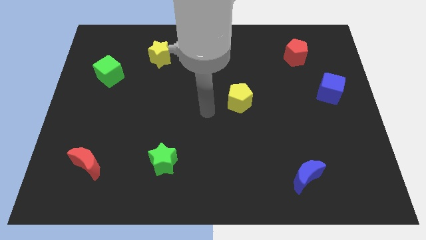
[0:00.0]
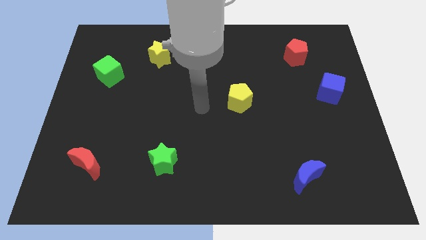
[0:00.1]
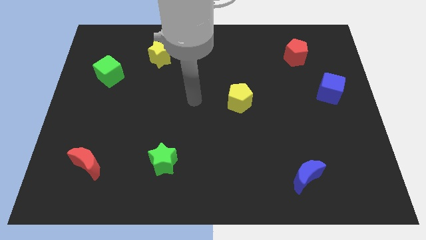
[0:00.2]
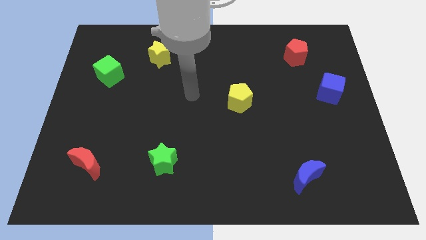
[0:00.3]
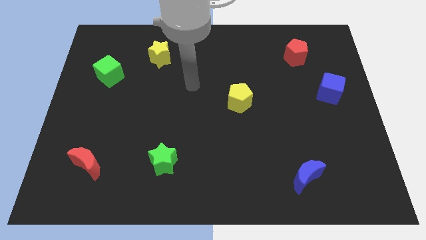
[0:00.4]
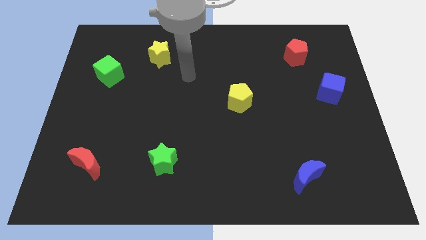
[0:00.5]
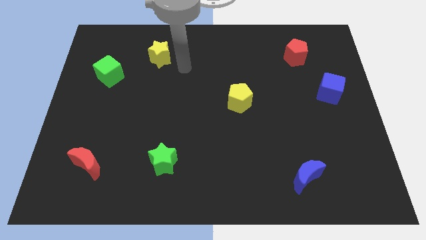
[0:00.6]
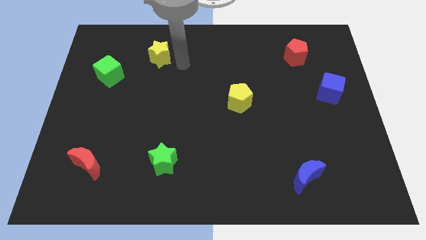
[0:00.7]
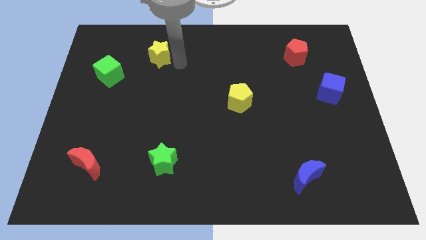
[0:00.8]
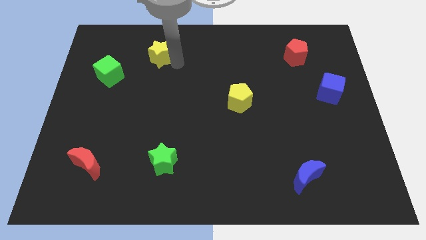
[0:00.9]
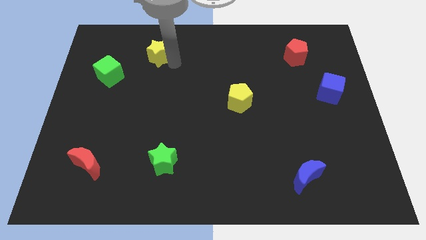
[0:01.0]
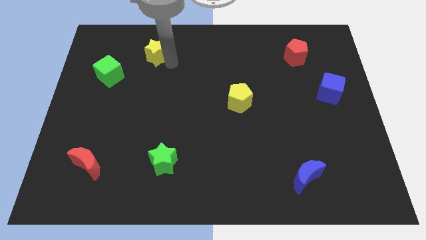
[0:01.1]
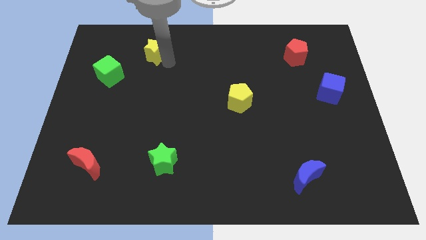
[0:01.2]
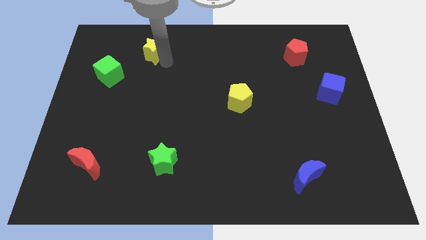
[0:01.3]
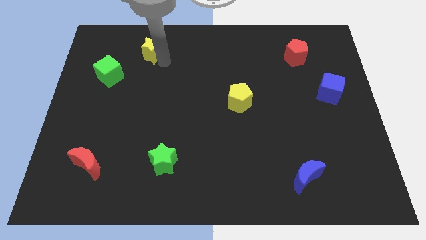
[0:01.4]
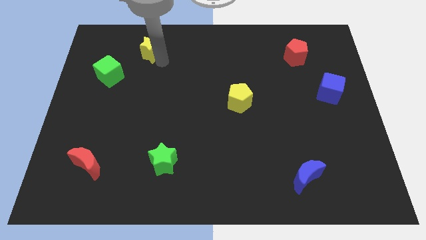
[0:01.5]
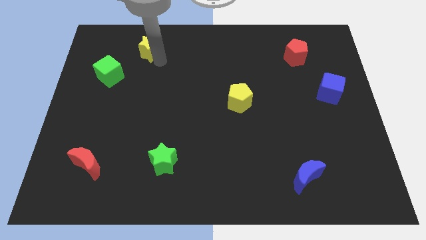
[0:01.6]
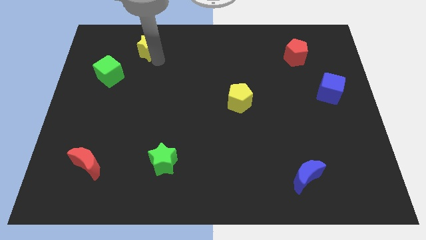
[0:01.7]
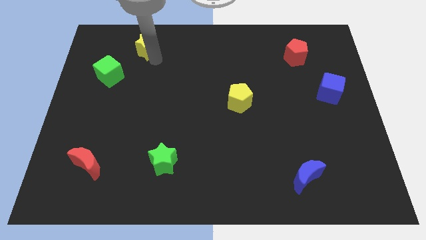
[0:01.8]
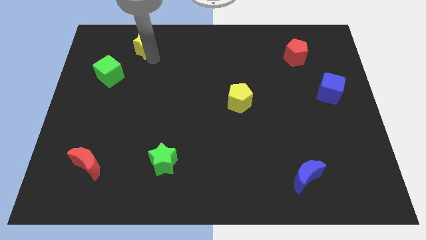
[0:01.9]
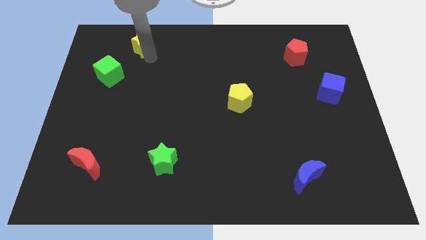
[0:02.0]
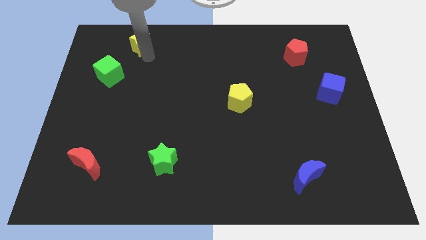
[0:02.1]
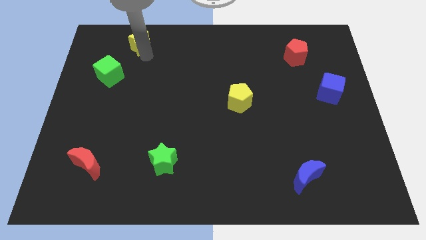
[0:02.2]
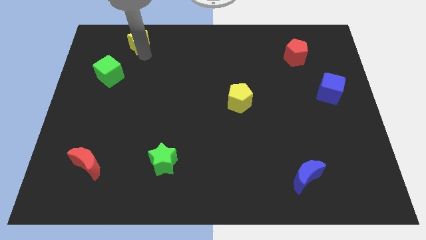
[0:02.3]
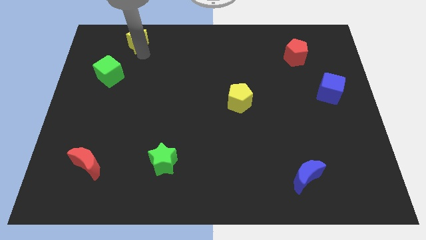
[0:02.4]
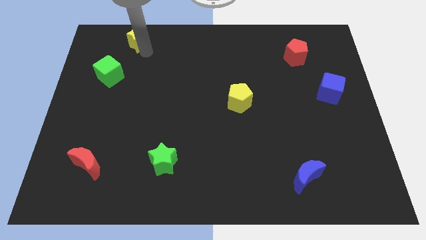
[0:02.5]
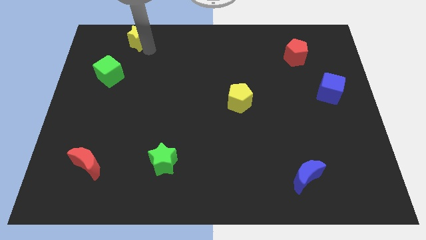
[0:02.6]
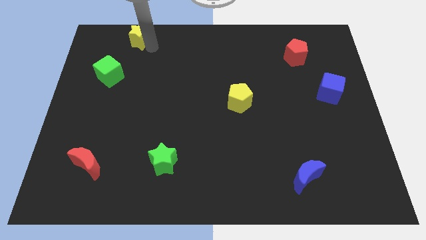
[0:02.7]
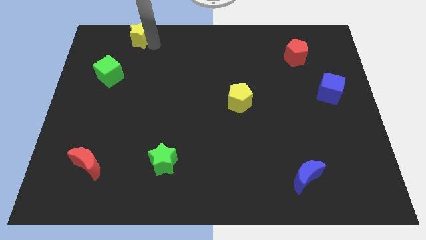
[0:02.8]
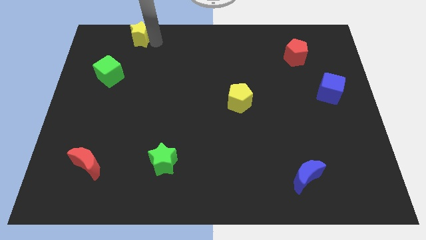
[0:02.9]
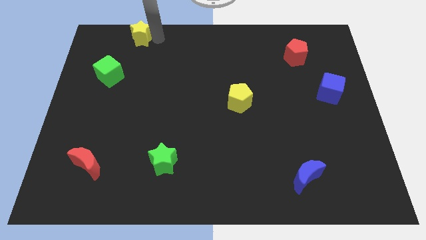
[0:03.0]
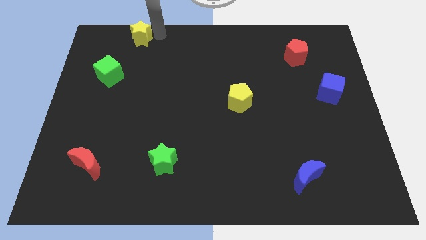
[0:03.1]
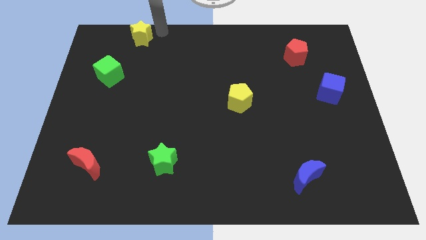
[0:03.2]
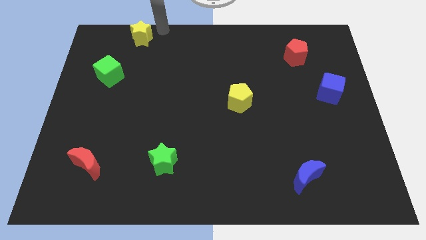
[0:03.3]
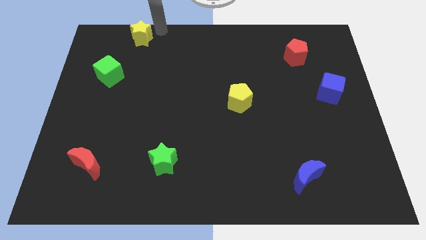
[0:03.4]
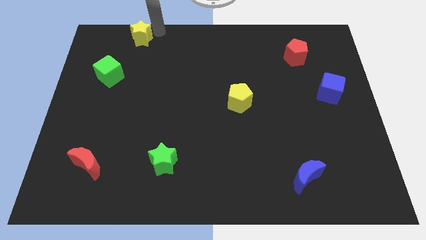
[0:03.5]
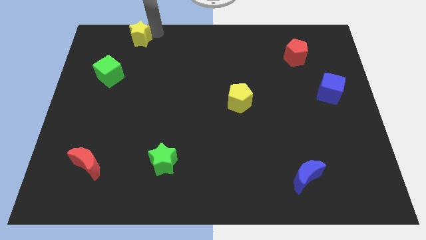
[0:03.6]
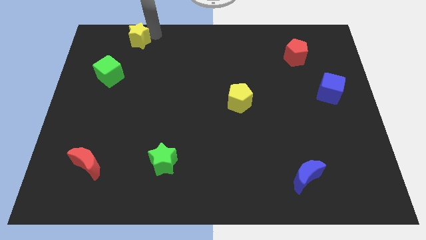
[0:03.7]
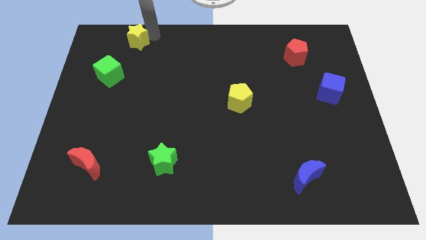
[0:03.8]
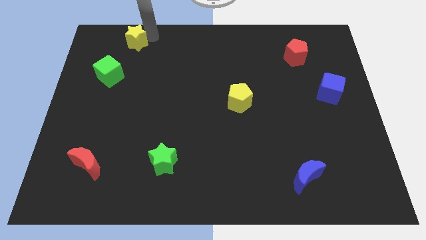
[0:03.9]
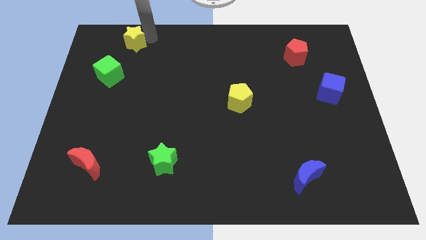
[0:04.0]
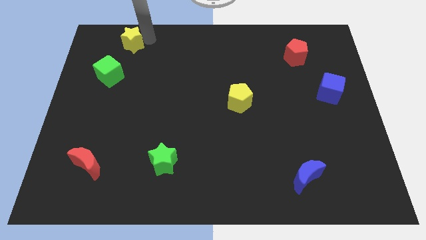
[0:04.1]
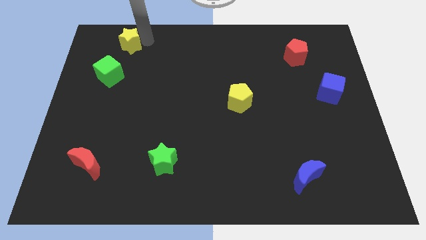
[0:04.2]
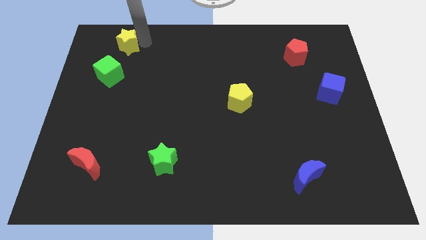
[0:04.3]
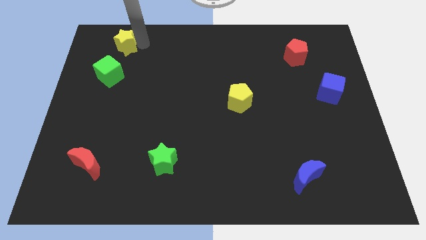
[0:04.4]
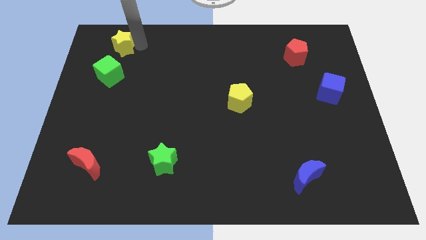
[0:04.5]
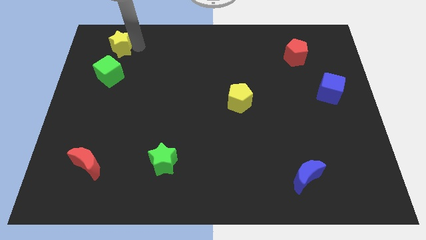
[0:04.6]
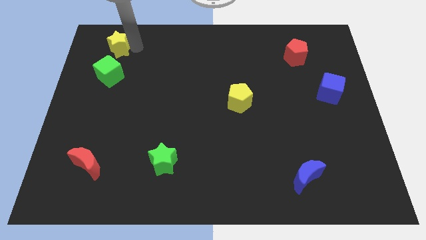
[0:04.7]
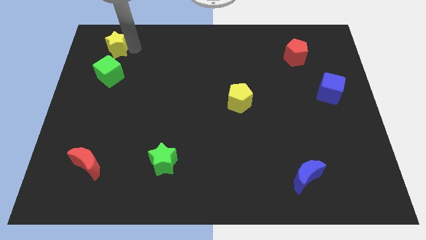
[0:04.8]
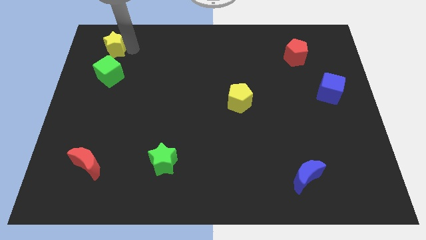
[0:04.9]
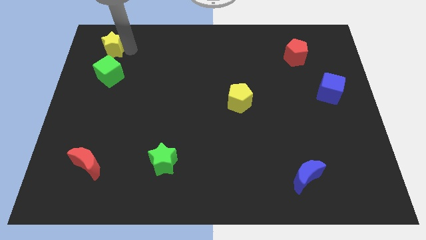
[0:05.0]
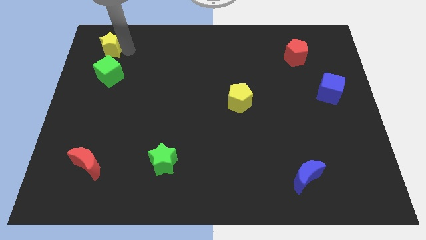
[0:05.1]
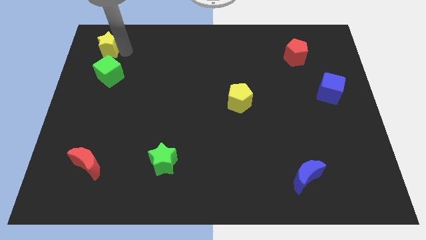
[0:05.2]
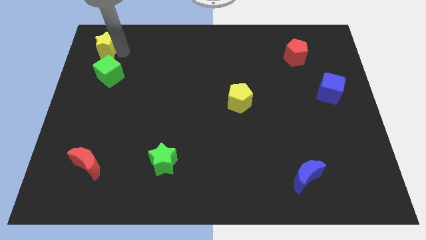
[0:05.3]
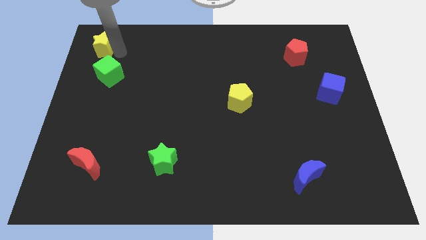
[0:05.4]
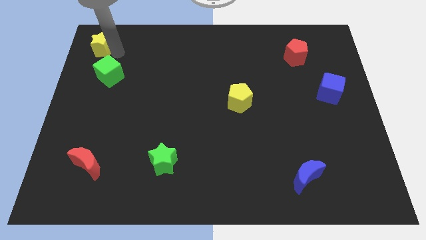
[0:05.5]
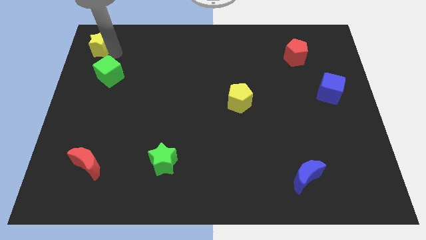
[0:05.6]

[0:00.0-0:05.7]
push the yellow star to the upper left corner

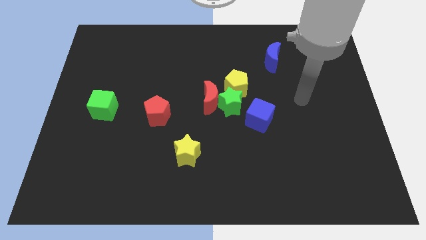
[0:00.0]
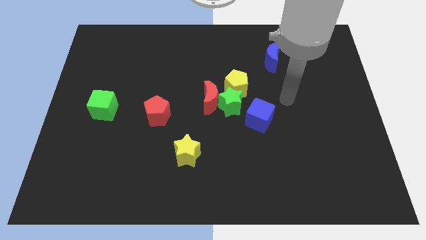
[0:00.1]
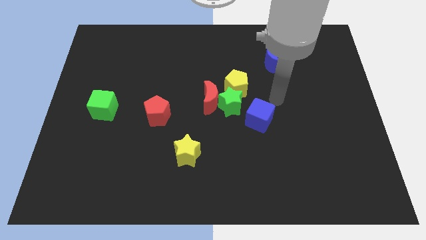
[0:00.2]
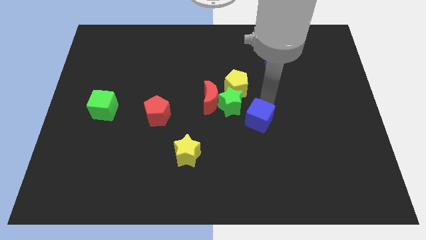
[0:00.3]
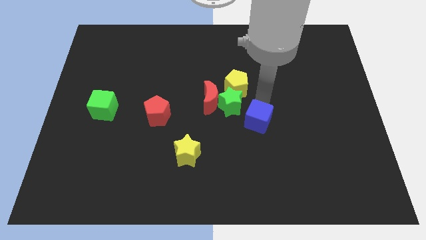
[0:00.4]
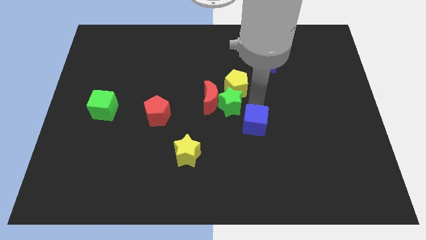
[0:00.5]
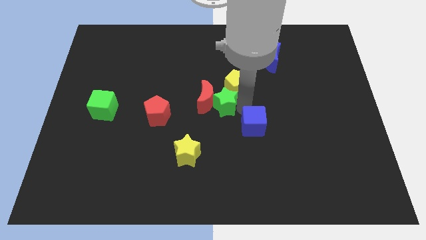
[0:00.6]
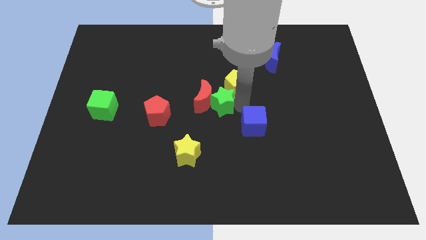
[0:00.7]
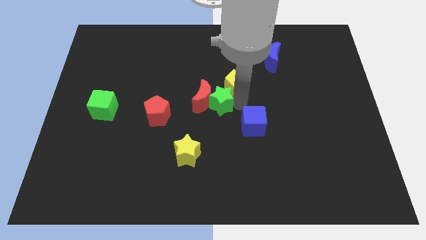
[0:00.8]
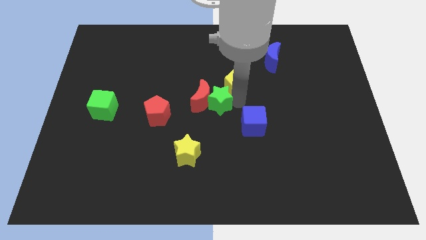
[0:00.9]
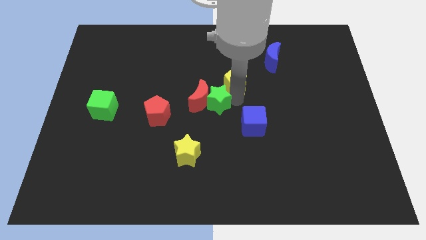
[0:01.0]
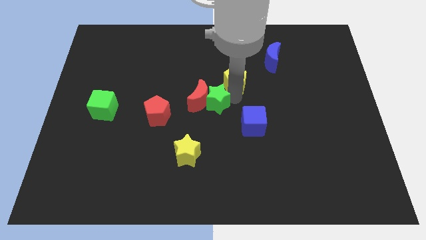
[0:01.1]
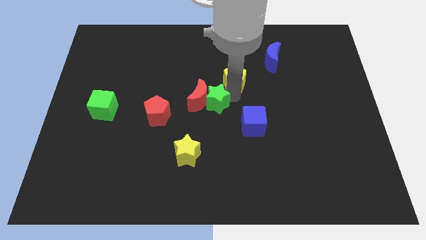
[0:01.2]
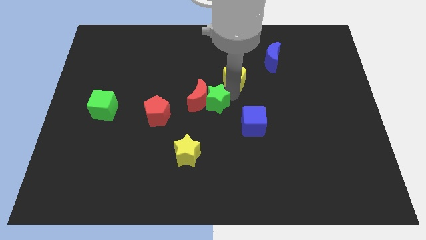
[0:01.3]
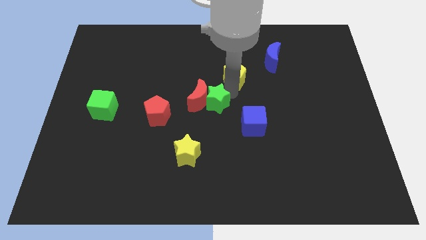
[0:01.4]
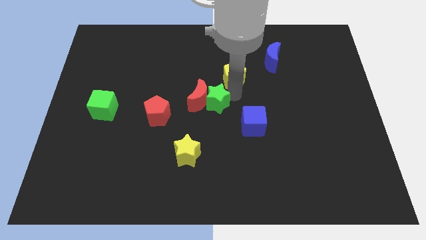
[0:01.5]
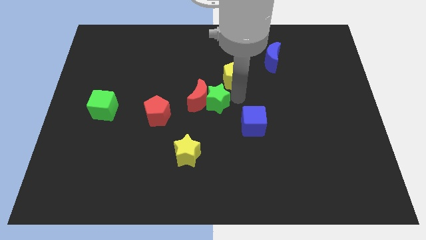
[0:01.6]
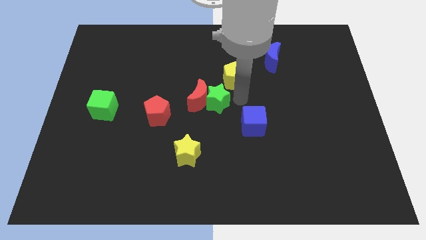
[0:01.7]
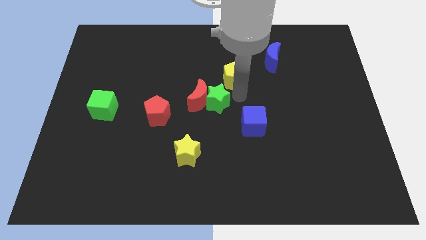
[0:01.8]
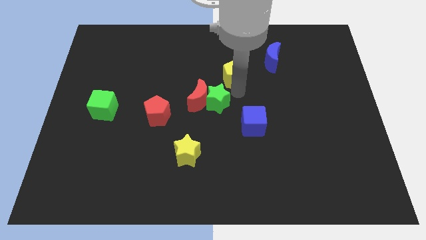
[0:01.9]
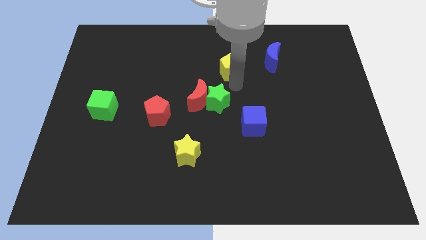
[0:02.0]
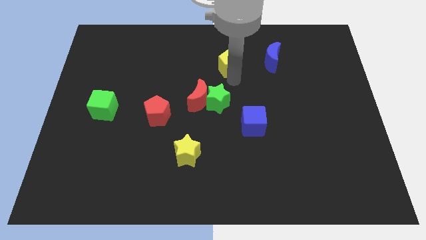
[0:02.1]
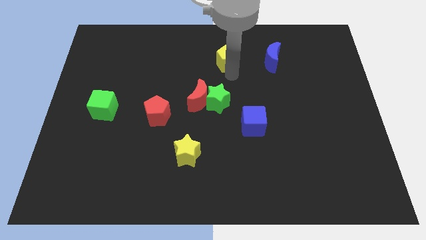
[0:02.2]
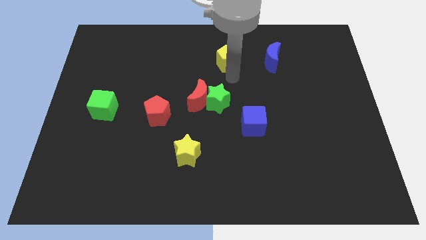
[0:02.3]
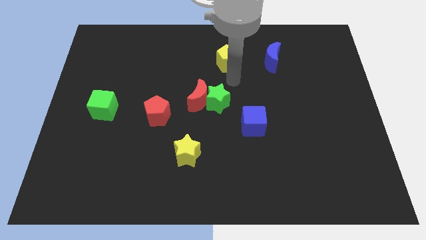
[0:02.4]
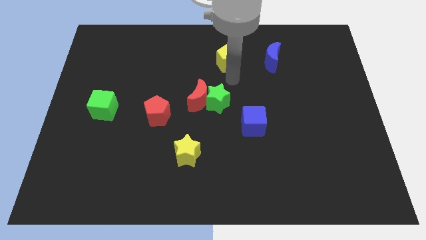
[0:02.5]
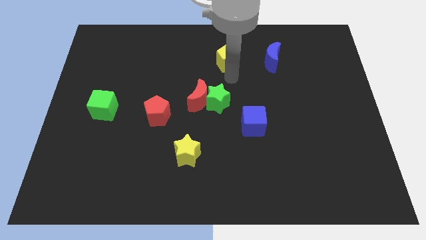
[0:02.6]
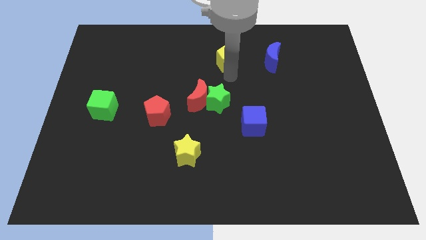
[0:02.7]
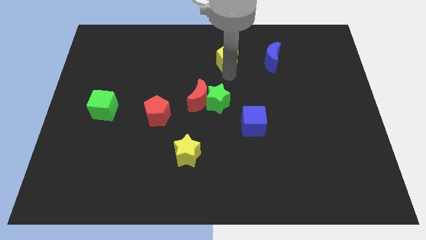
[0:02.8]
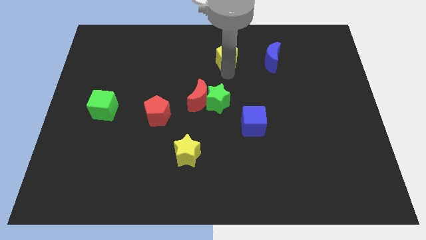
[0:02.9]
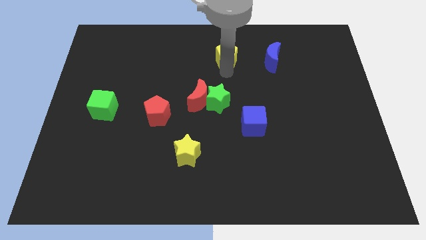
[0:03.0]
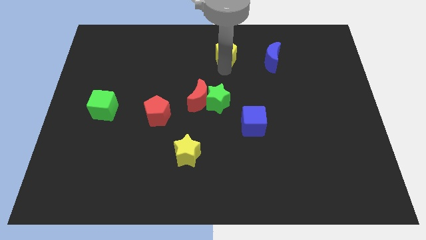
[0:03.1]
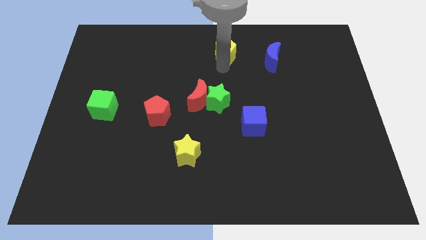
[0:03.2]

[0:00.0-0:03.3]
push the yellow pentagon to the top
